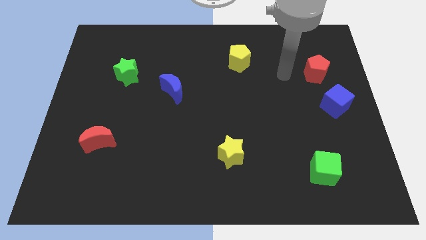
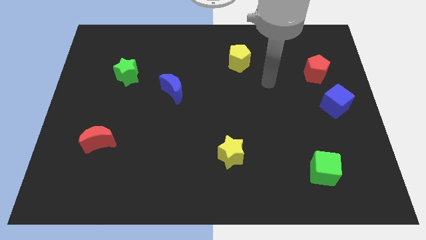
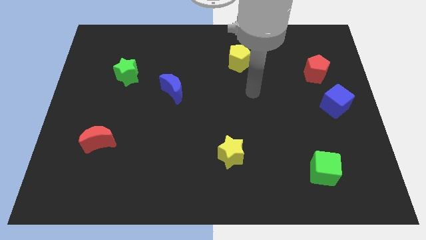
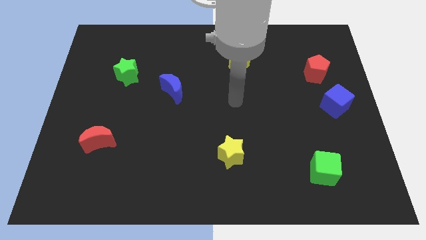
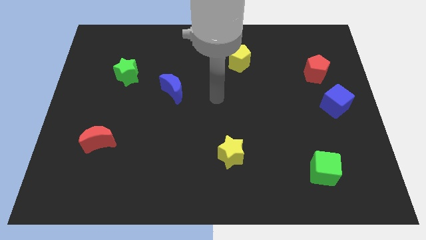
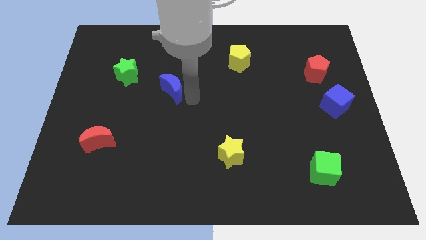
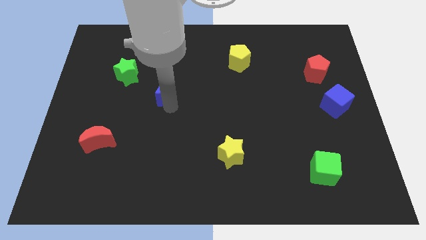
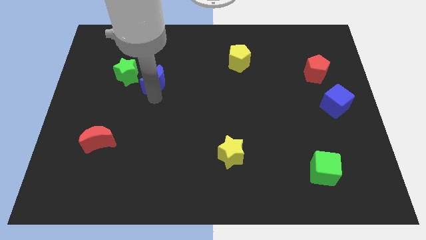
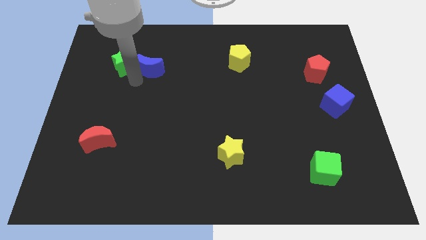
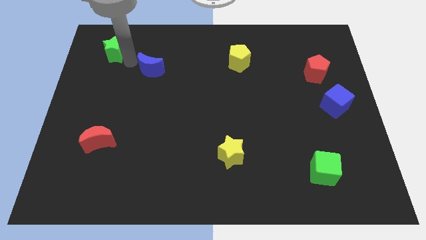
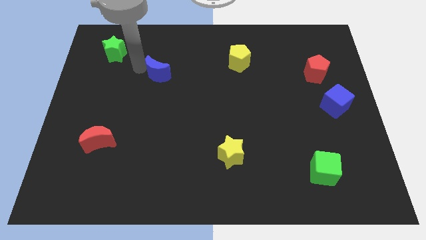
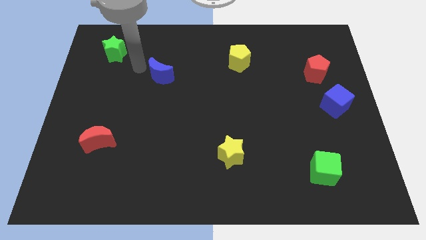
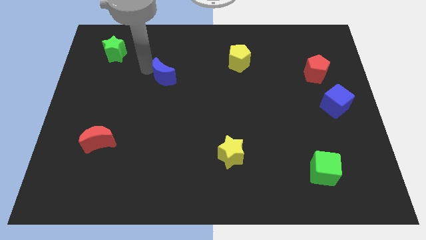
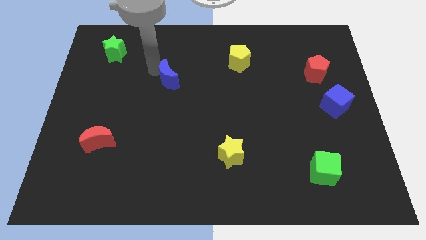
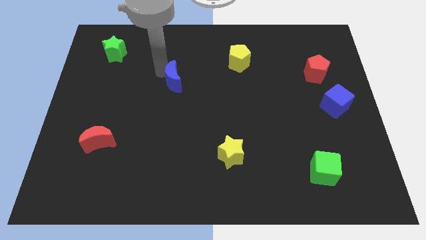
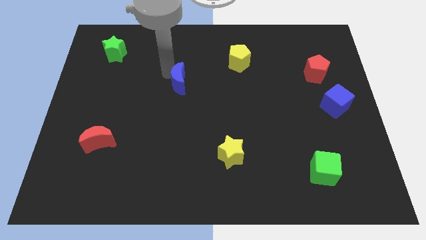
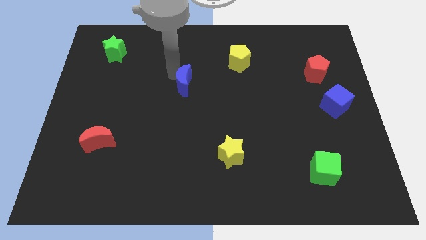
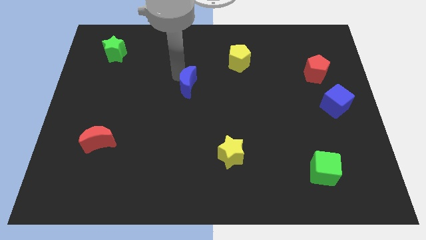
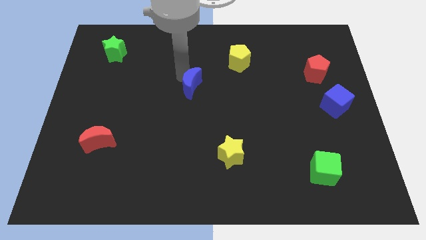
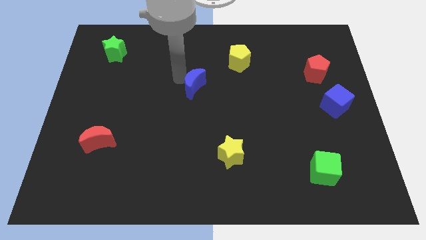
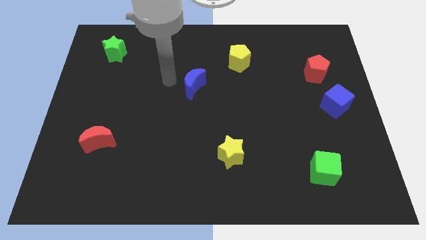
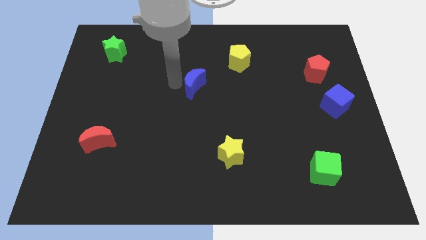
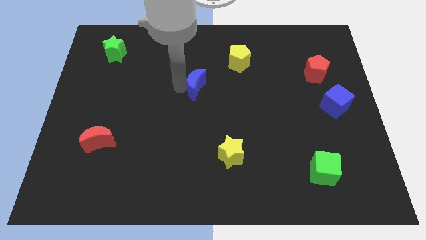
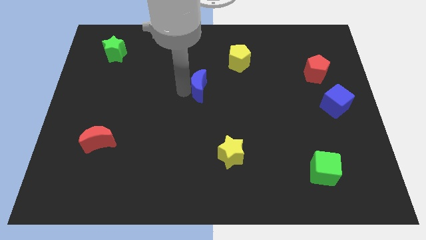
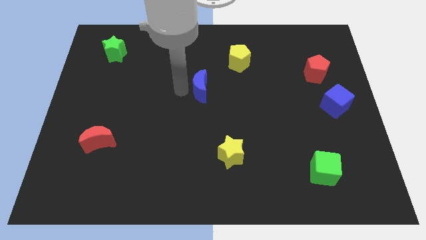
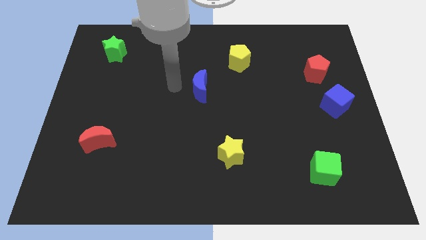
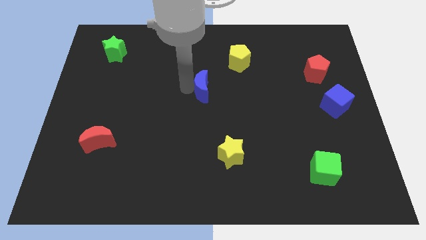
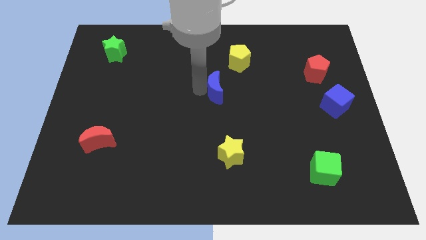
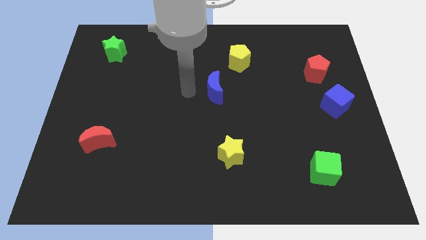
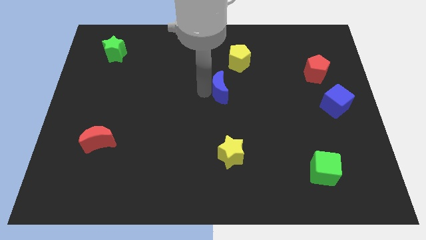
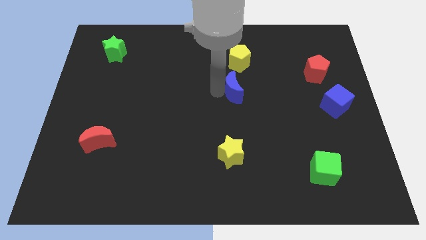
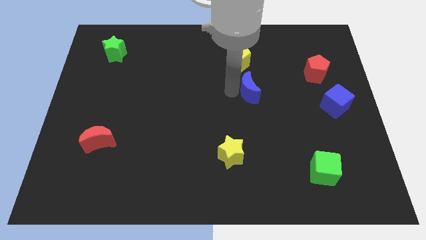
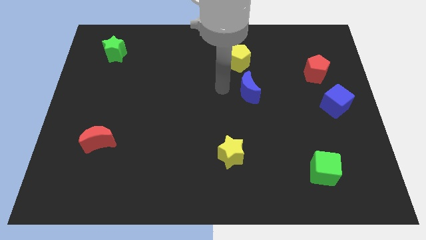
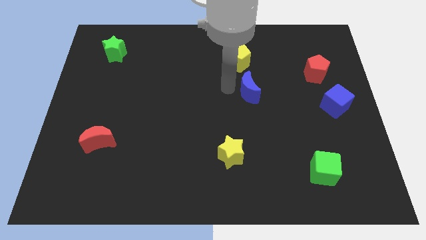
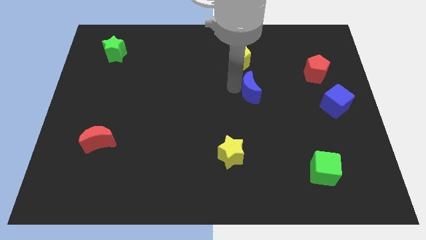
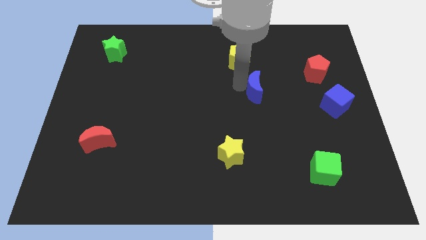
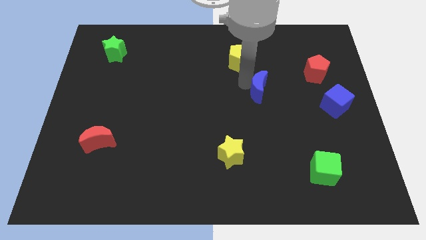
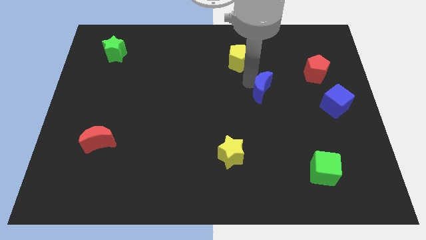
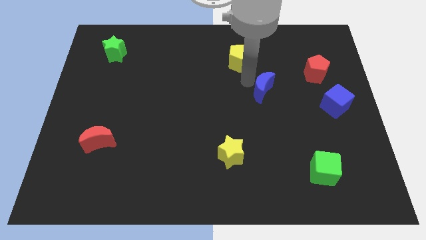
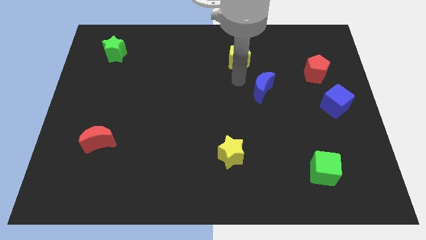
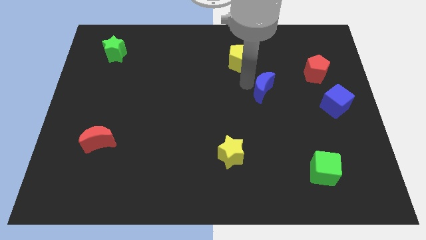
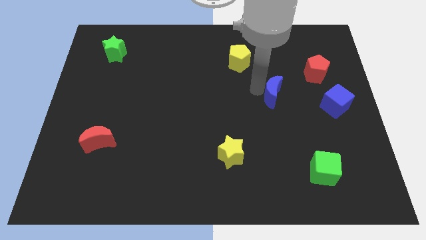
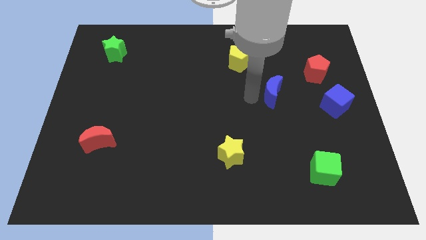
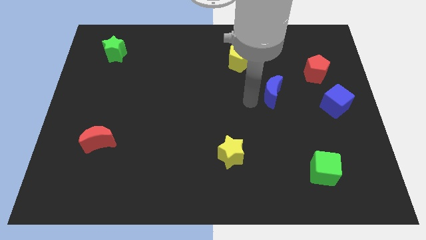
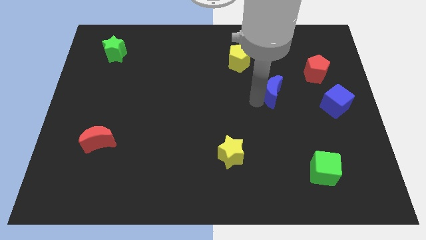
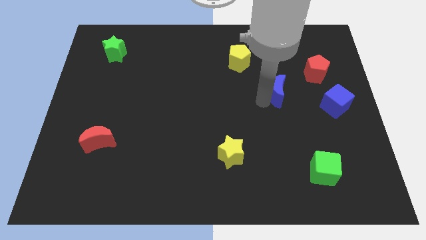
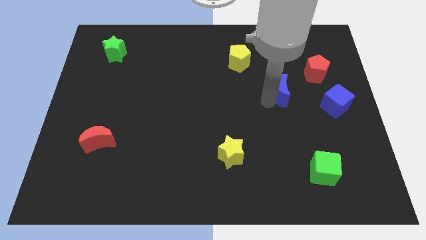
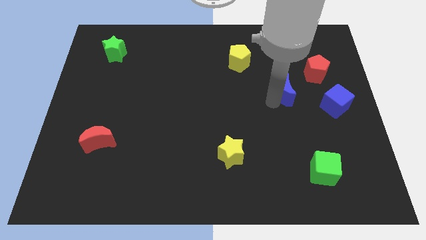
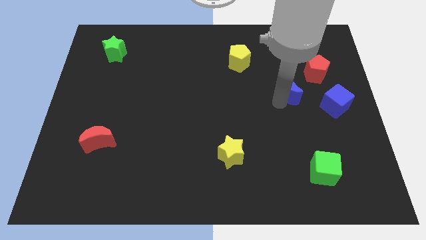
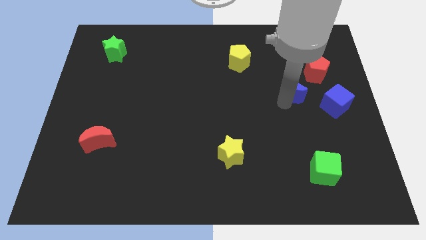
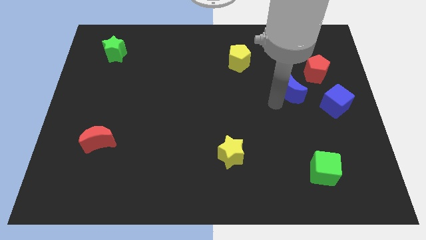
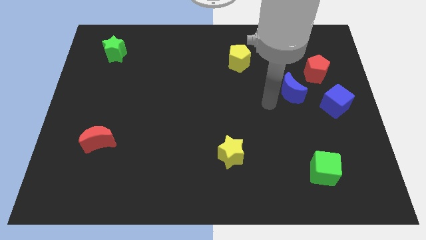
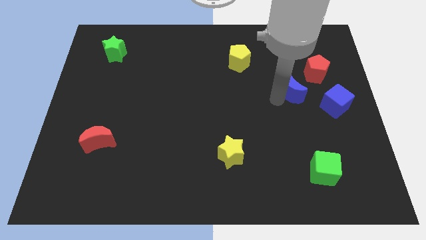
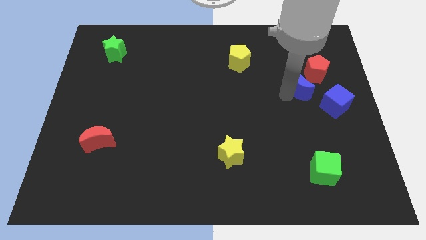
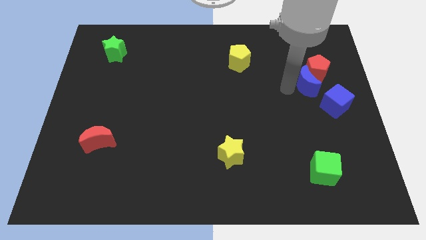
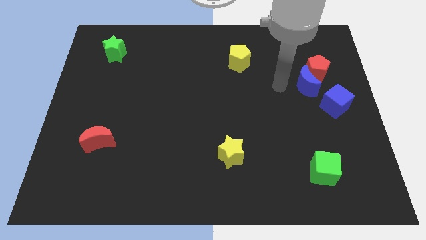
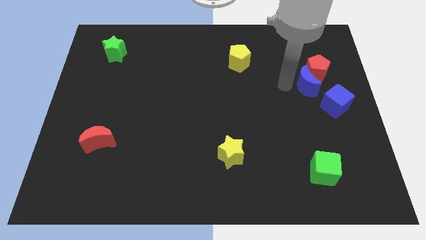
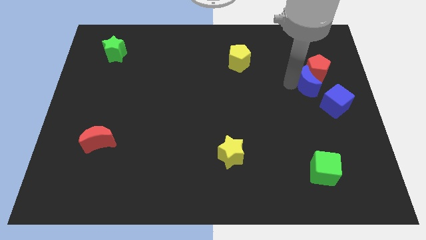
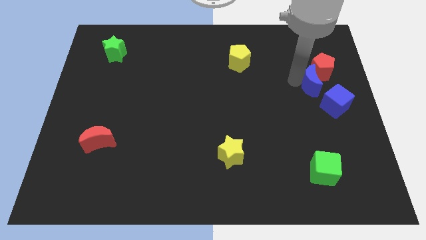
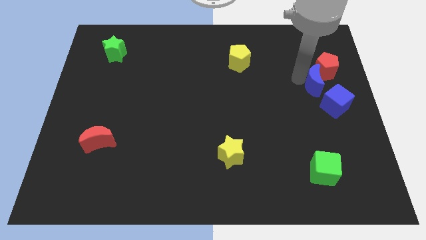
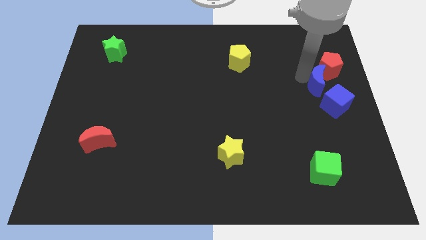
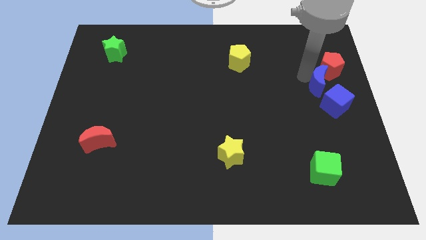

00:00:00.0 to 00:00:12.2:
push the blue moon to the right side of the board
